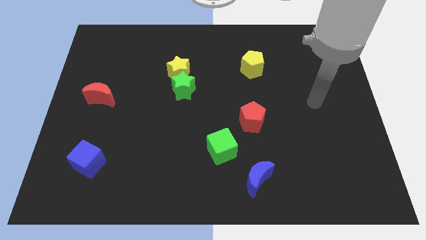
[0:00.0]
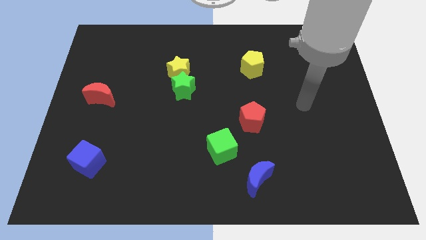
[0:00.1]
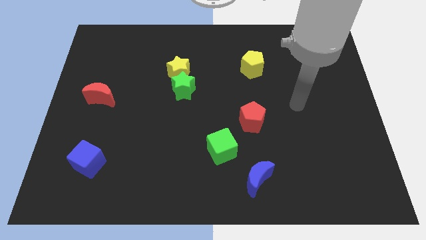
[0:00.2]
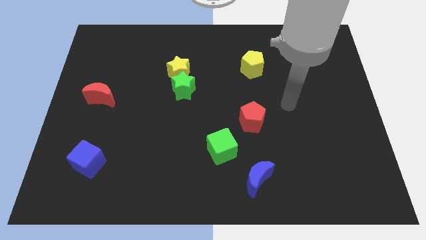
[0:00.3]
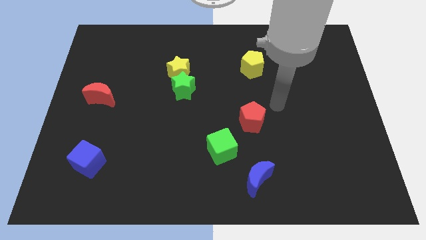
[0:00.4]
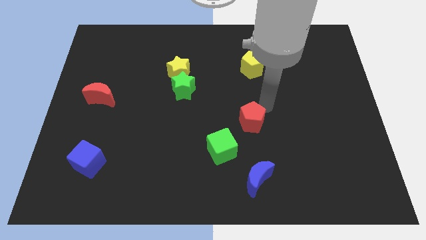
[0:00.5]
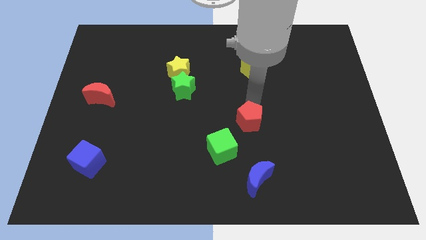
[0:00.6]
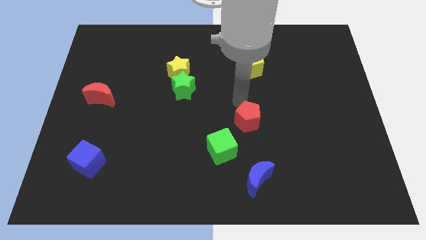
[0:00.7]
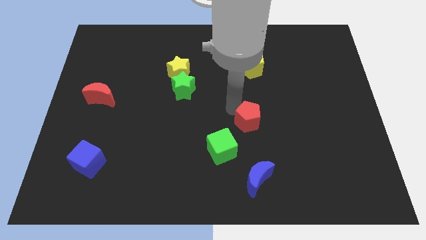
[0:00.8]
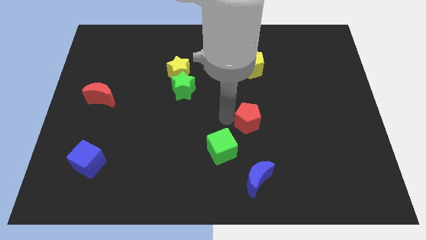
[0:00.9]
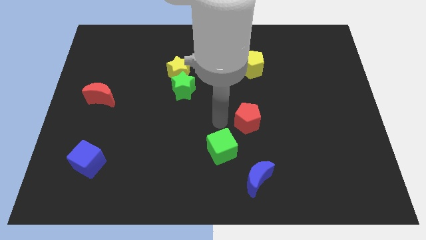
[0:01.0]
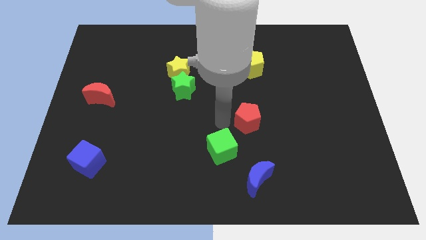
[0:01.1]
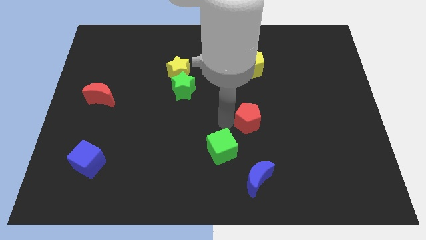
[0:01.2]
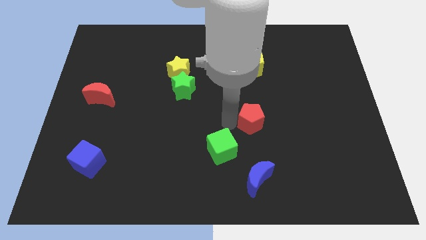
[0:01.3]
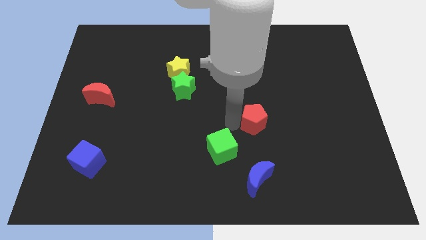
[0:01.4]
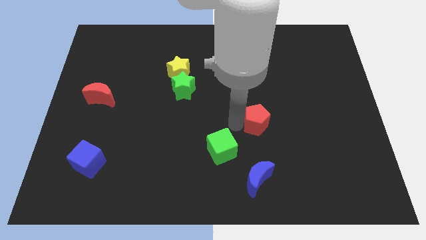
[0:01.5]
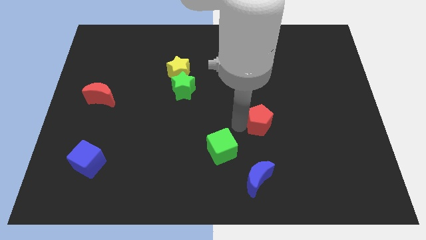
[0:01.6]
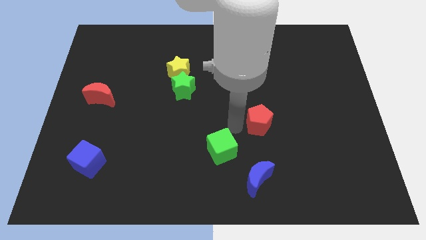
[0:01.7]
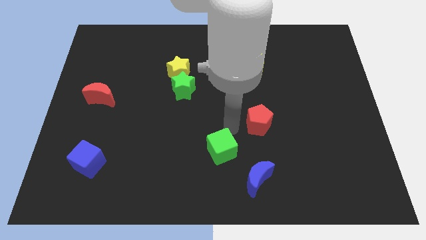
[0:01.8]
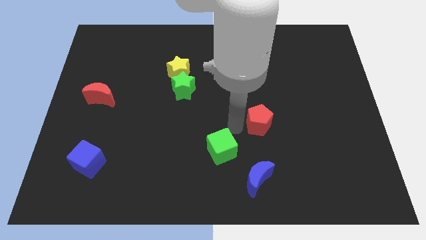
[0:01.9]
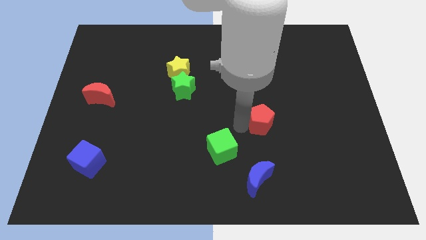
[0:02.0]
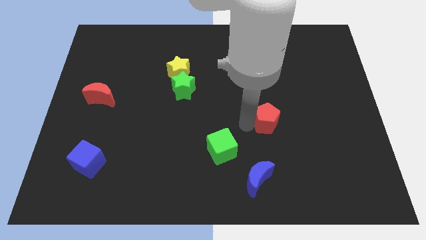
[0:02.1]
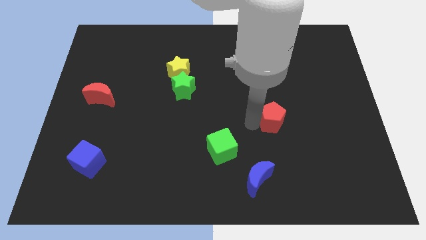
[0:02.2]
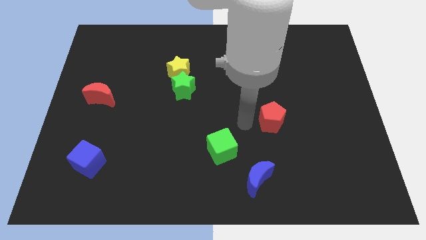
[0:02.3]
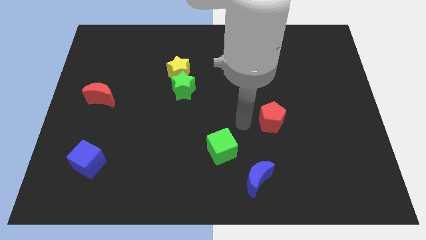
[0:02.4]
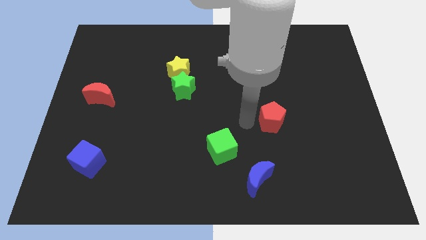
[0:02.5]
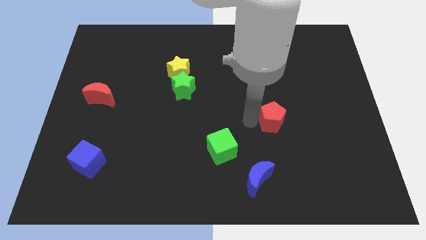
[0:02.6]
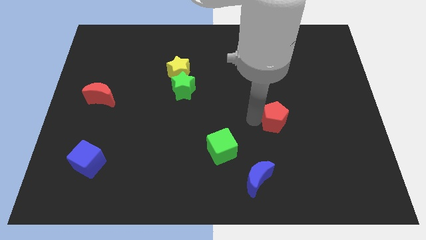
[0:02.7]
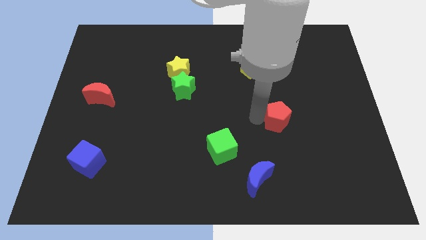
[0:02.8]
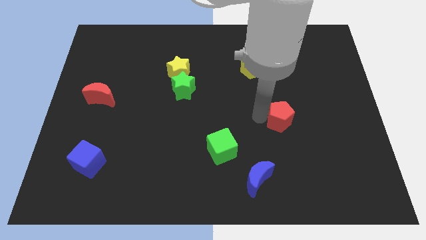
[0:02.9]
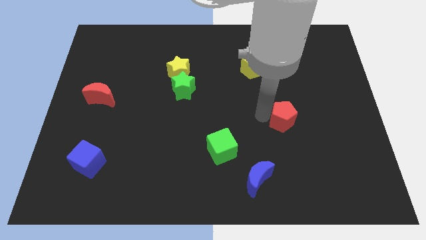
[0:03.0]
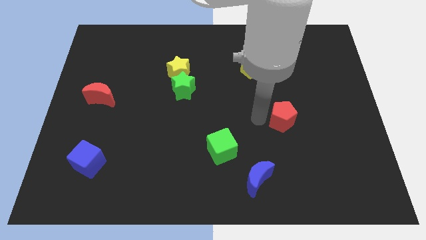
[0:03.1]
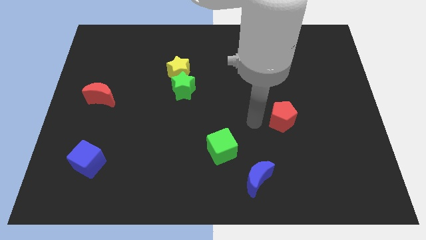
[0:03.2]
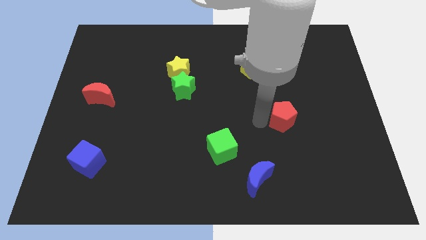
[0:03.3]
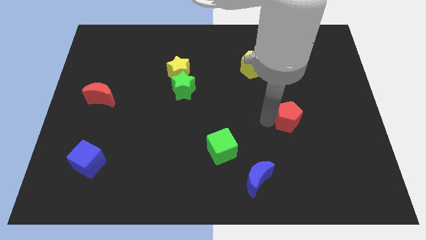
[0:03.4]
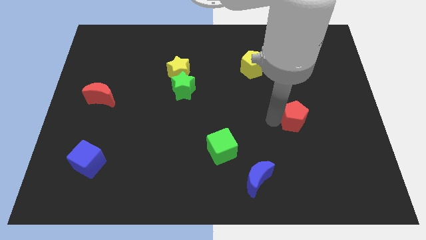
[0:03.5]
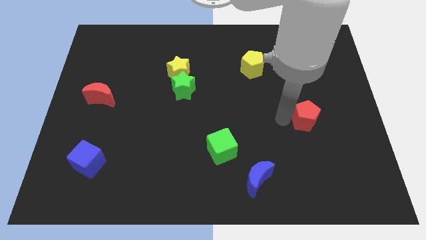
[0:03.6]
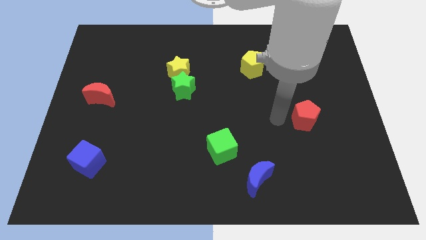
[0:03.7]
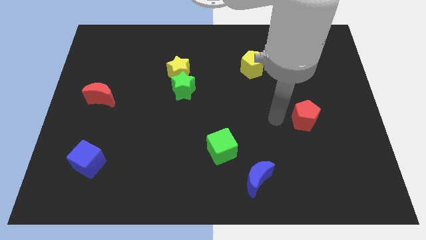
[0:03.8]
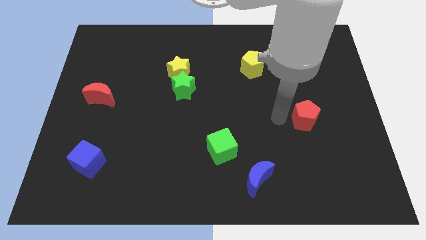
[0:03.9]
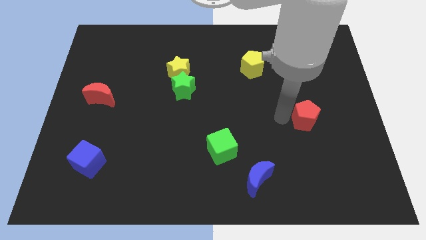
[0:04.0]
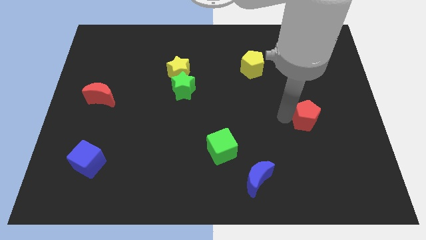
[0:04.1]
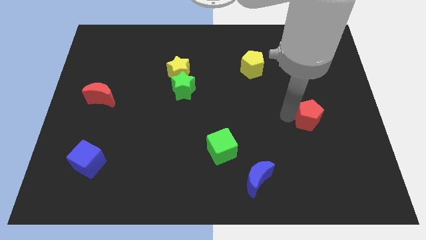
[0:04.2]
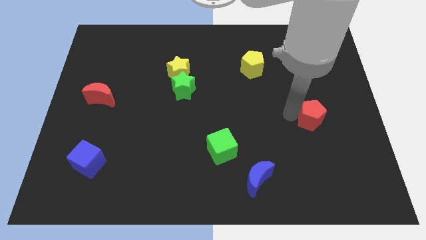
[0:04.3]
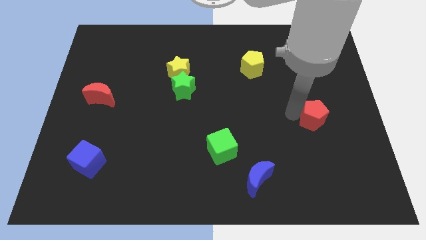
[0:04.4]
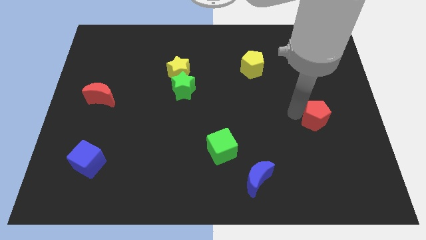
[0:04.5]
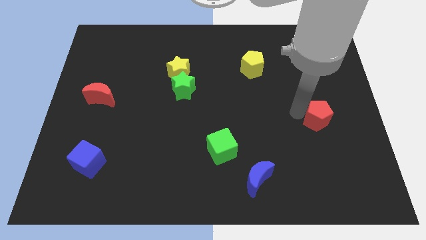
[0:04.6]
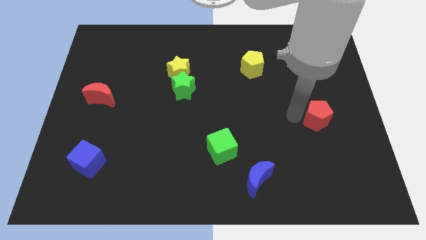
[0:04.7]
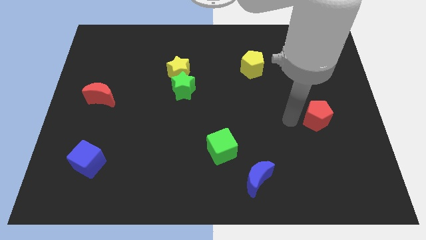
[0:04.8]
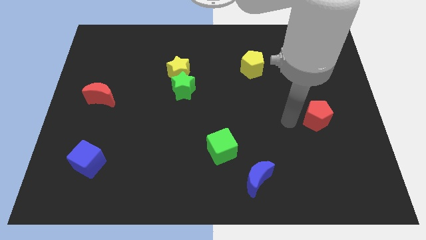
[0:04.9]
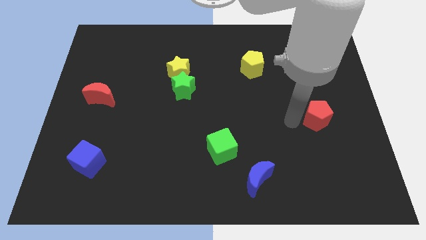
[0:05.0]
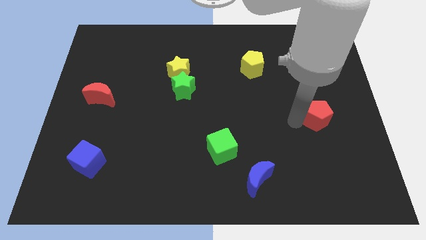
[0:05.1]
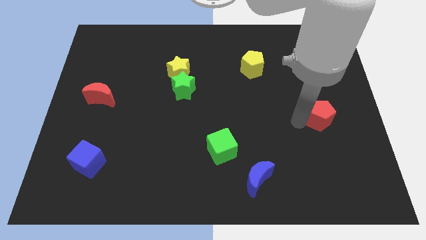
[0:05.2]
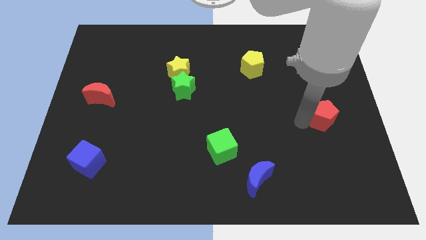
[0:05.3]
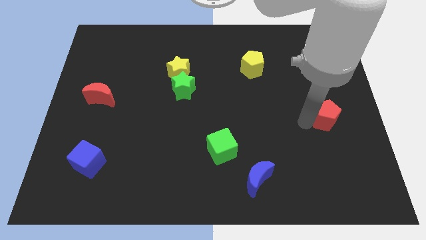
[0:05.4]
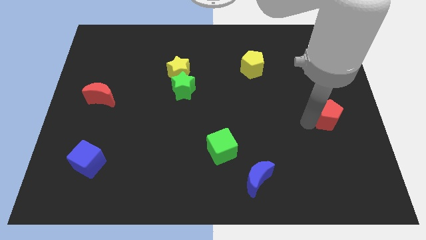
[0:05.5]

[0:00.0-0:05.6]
put the red pentagon to the center right
